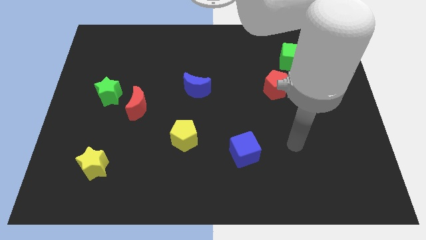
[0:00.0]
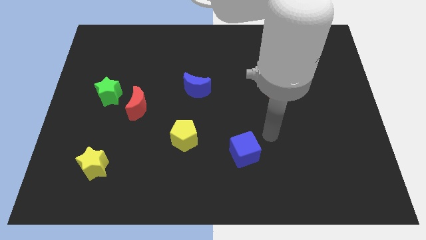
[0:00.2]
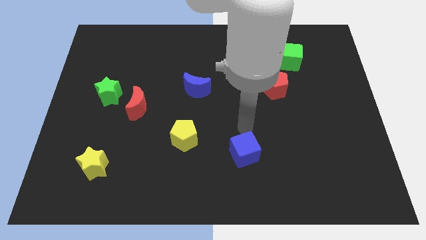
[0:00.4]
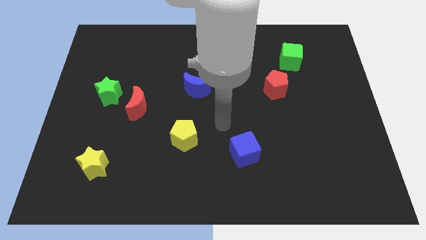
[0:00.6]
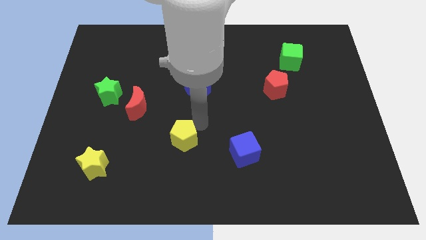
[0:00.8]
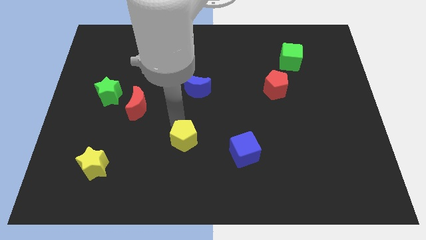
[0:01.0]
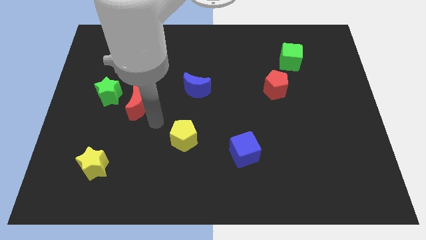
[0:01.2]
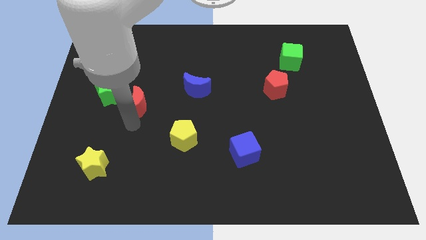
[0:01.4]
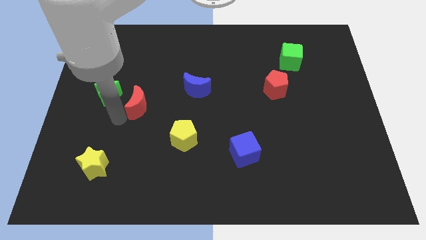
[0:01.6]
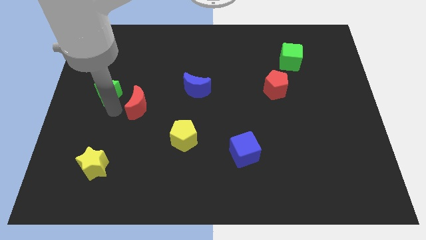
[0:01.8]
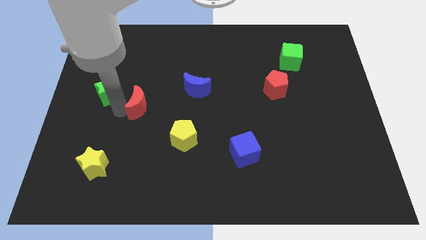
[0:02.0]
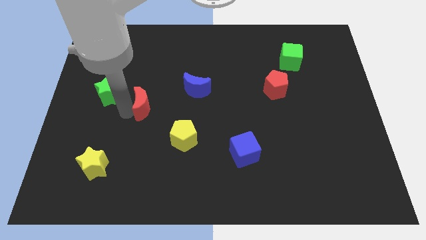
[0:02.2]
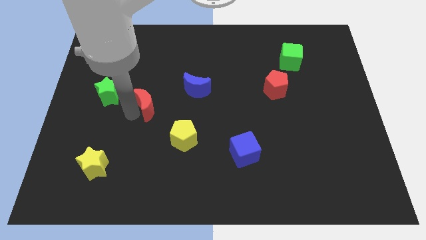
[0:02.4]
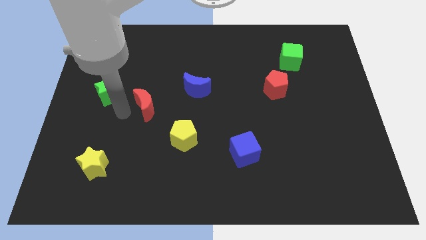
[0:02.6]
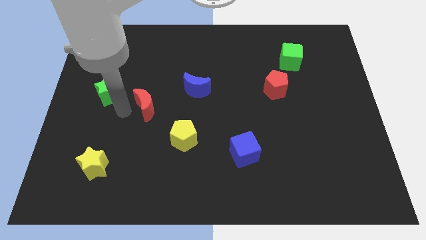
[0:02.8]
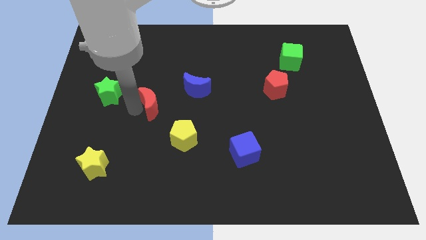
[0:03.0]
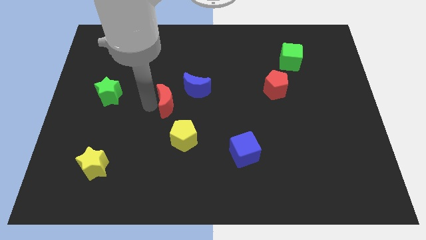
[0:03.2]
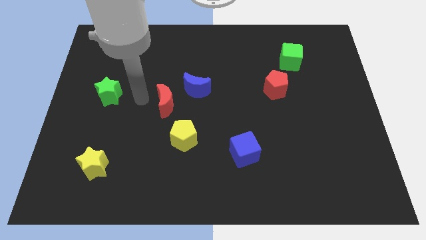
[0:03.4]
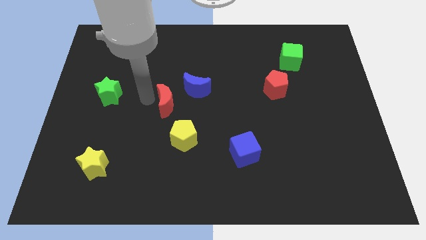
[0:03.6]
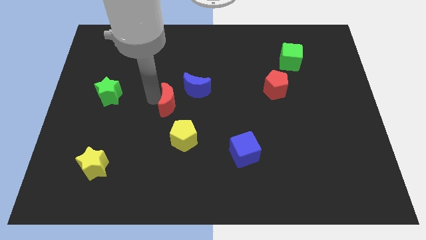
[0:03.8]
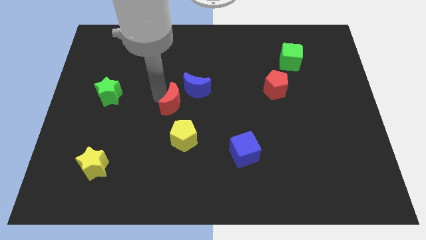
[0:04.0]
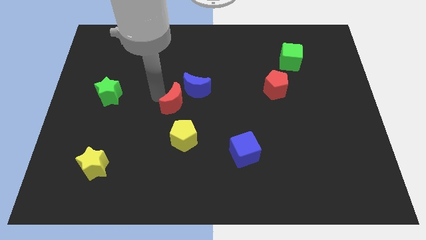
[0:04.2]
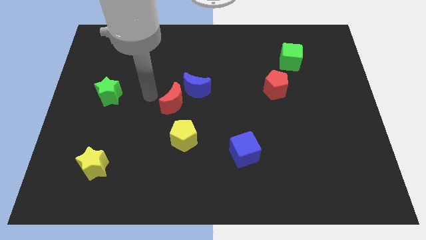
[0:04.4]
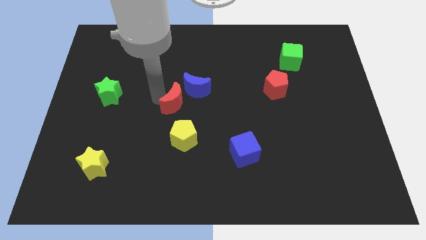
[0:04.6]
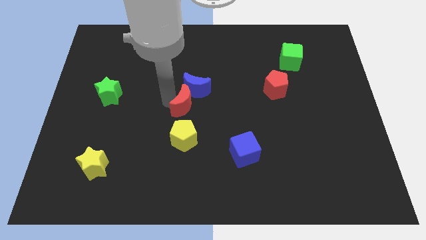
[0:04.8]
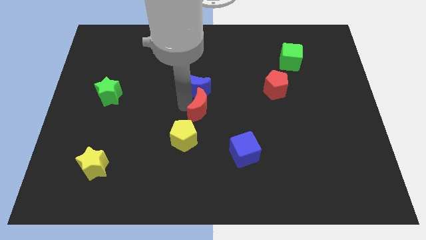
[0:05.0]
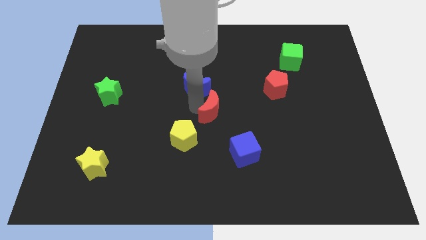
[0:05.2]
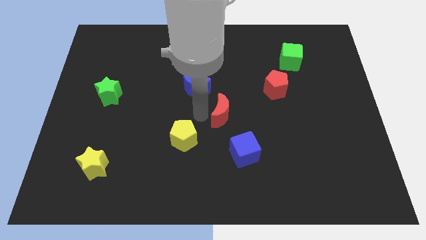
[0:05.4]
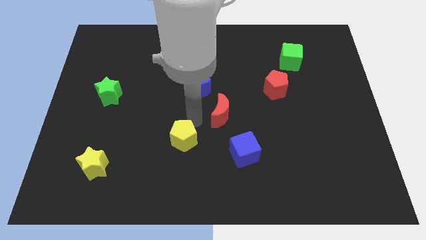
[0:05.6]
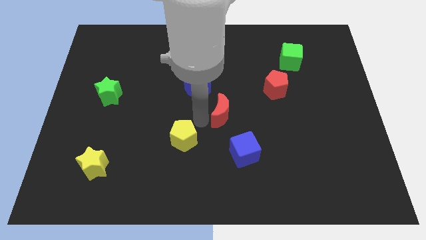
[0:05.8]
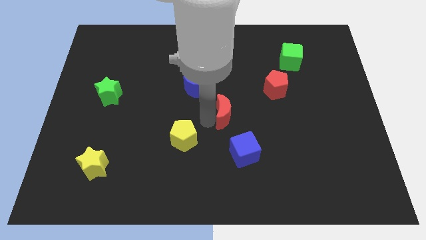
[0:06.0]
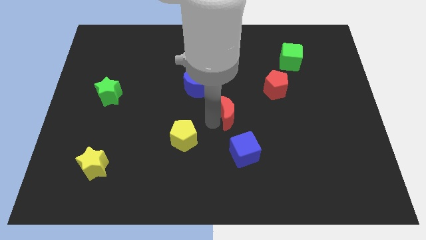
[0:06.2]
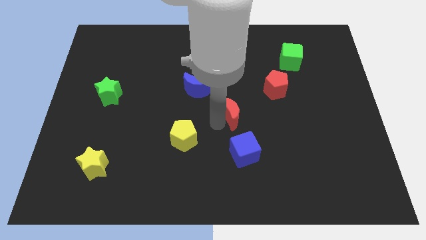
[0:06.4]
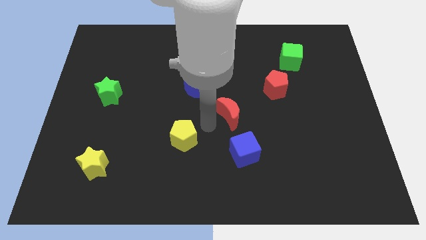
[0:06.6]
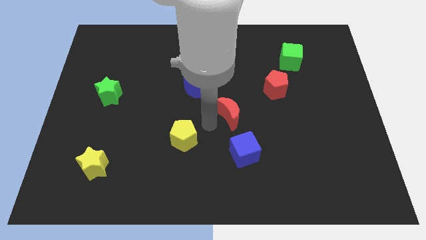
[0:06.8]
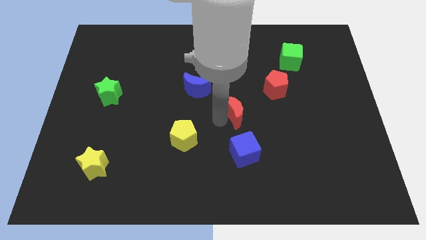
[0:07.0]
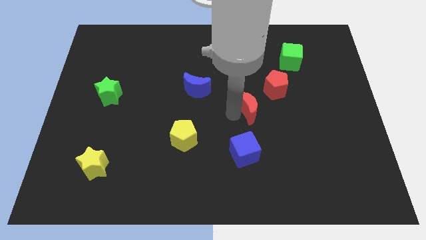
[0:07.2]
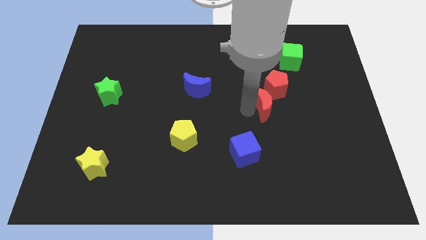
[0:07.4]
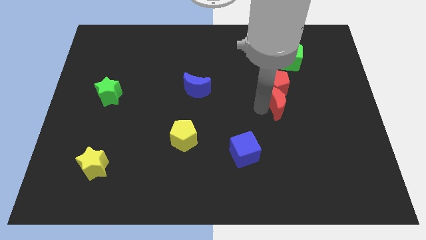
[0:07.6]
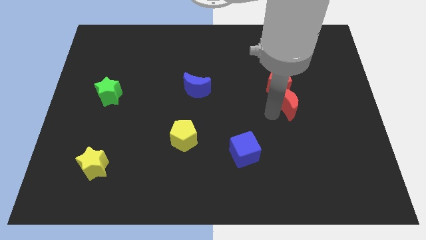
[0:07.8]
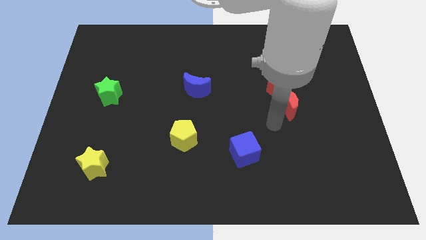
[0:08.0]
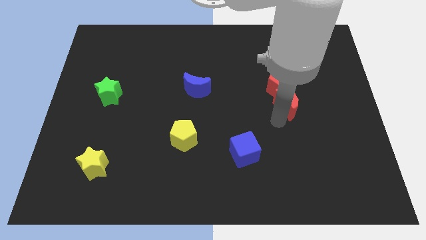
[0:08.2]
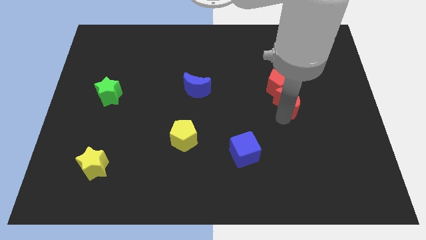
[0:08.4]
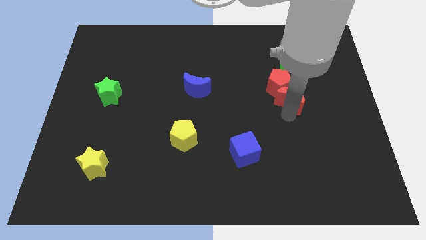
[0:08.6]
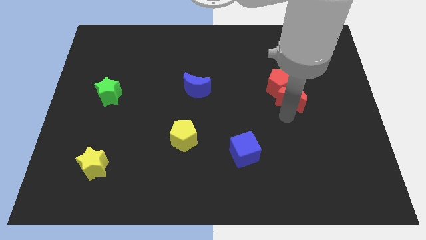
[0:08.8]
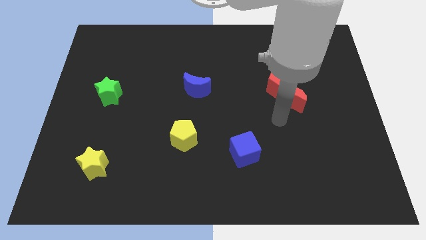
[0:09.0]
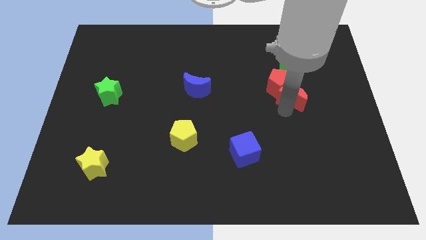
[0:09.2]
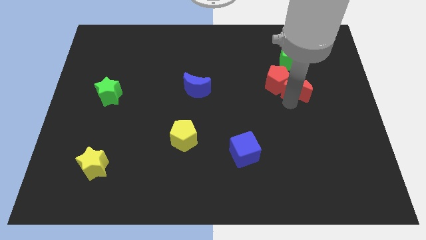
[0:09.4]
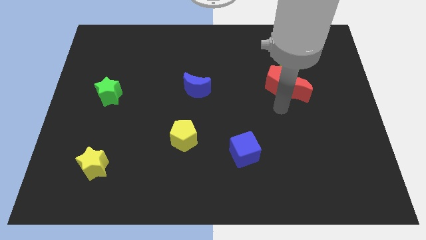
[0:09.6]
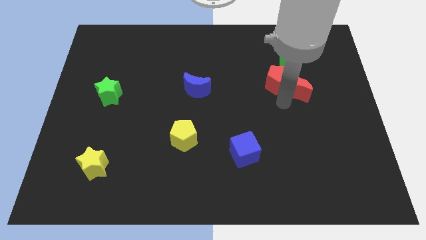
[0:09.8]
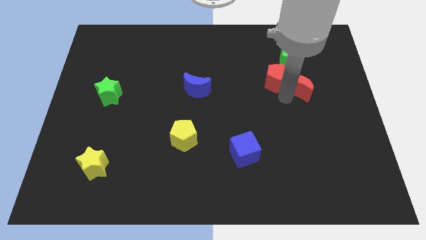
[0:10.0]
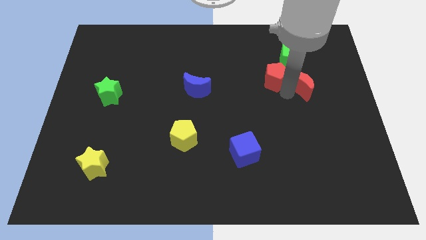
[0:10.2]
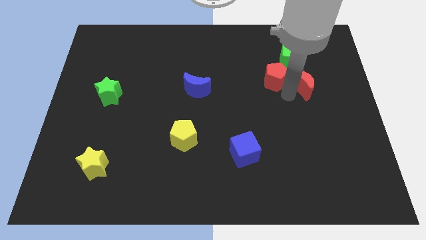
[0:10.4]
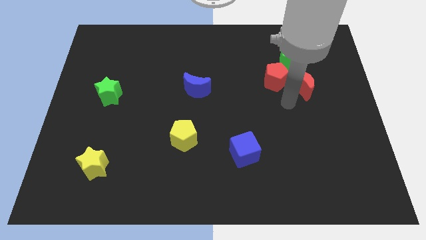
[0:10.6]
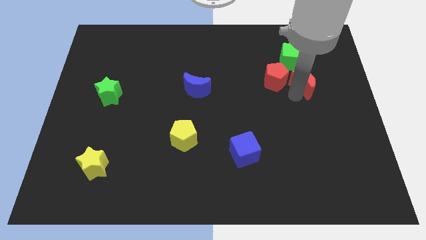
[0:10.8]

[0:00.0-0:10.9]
put the red moon diagonally down and to the right of the green cube

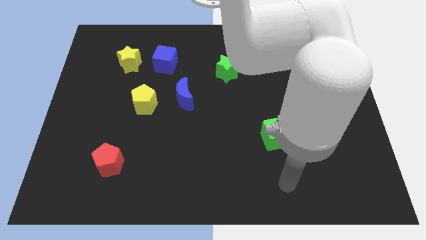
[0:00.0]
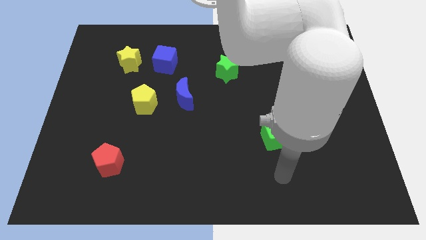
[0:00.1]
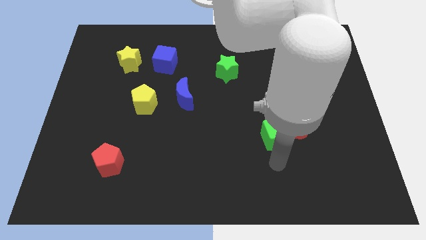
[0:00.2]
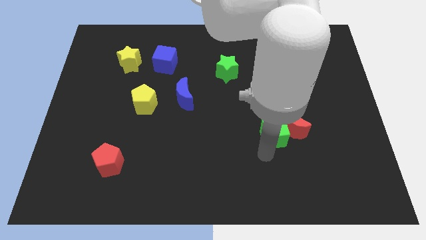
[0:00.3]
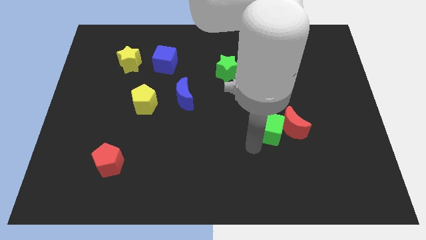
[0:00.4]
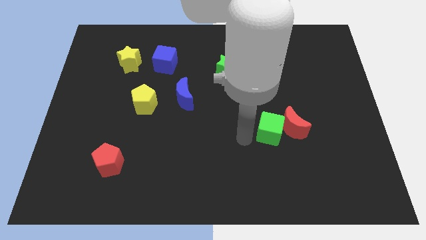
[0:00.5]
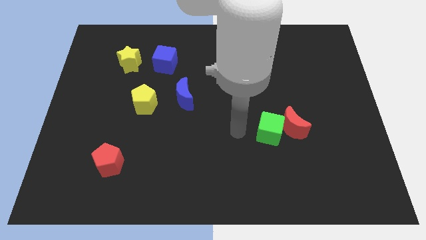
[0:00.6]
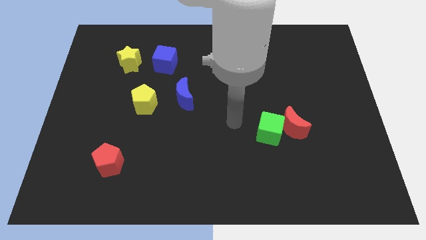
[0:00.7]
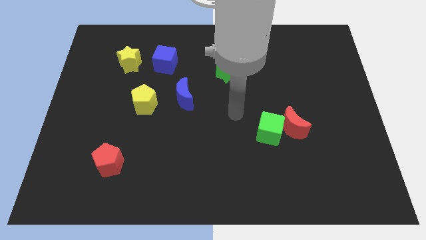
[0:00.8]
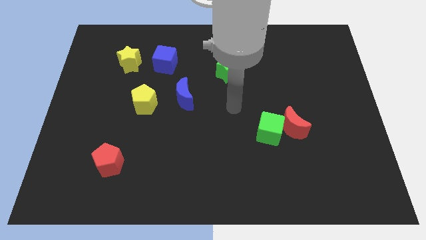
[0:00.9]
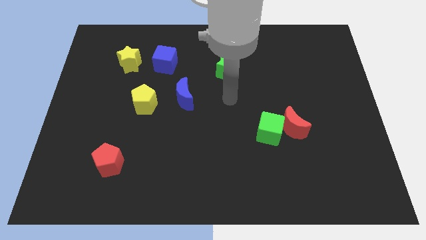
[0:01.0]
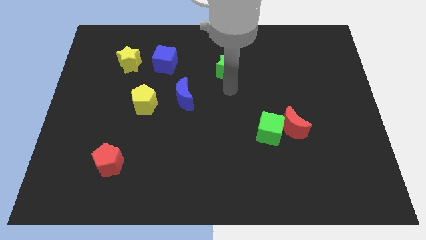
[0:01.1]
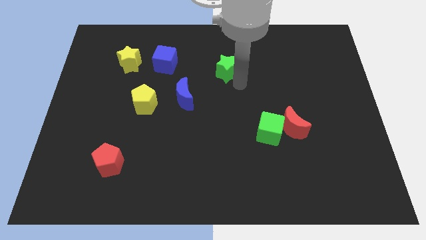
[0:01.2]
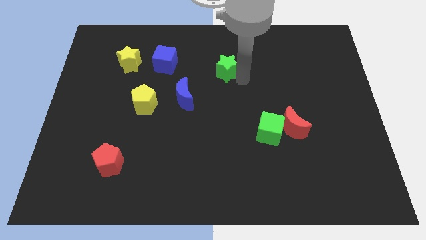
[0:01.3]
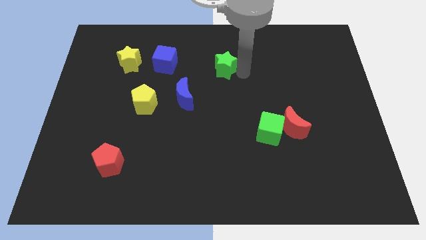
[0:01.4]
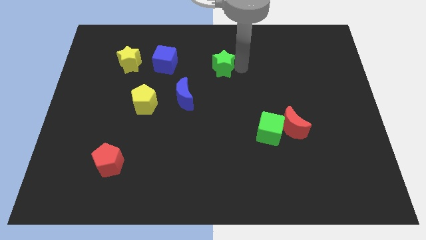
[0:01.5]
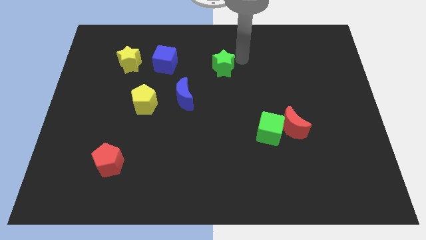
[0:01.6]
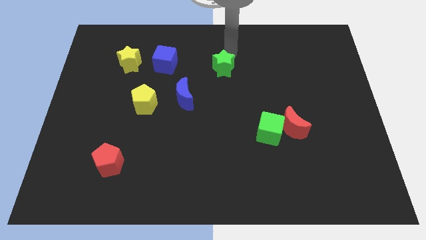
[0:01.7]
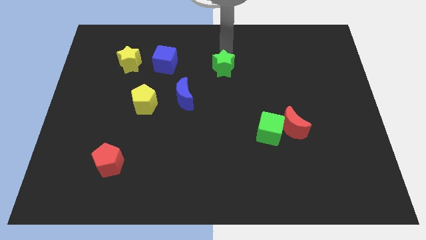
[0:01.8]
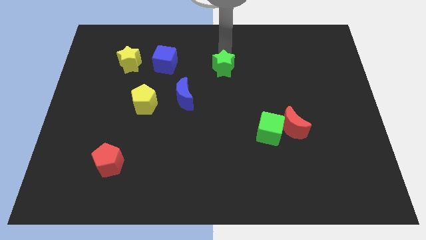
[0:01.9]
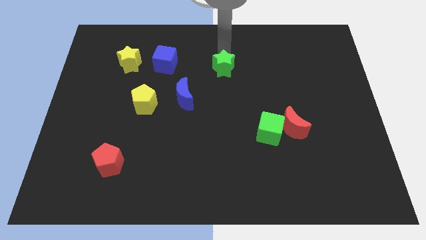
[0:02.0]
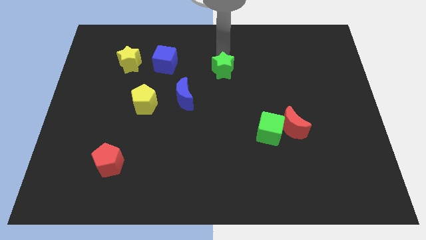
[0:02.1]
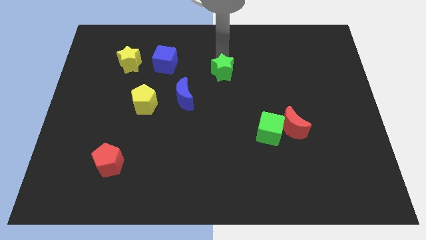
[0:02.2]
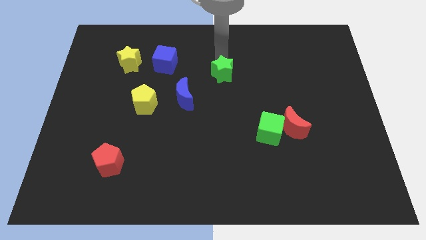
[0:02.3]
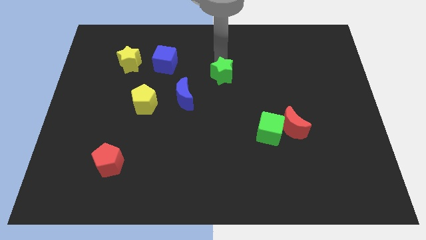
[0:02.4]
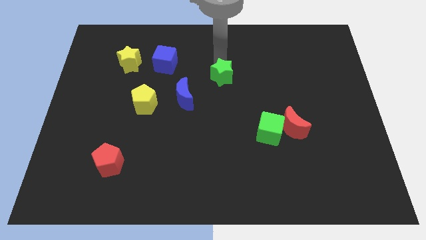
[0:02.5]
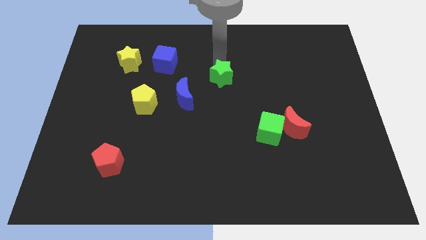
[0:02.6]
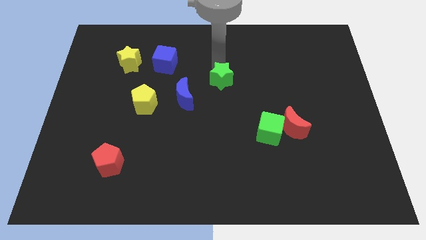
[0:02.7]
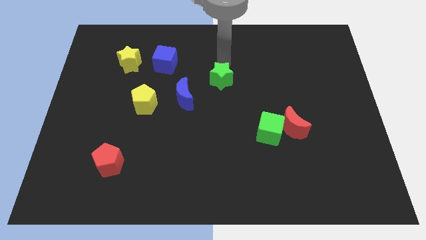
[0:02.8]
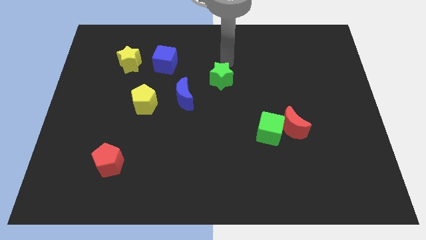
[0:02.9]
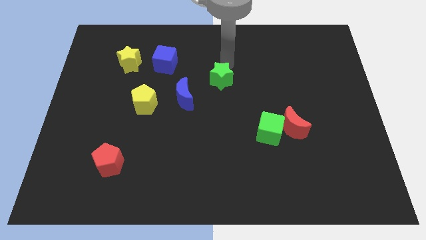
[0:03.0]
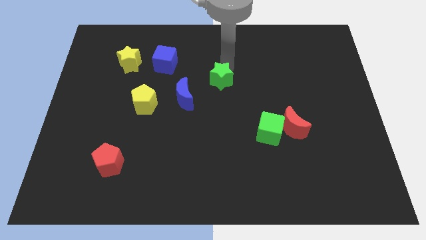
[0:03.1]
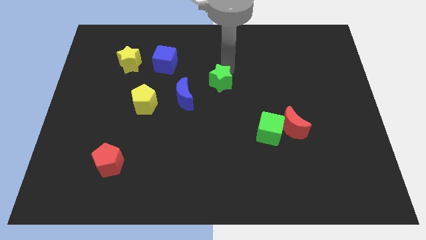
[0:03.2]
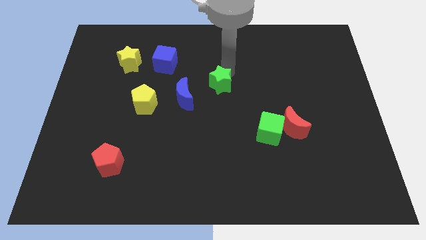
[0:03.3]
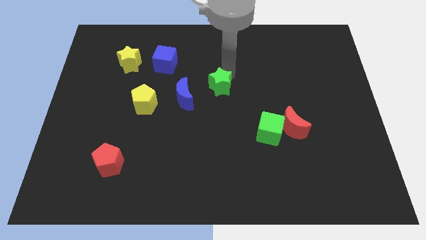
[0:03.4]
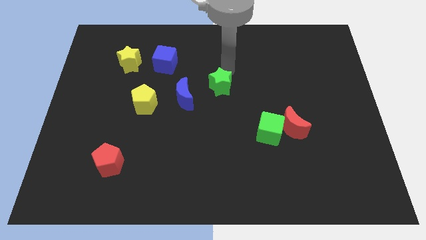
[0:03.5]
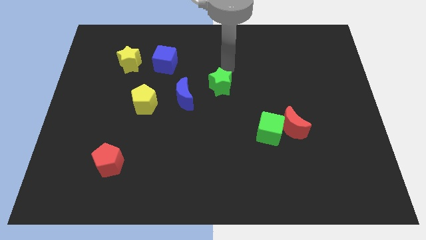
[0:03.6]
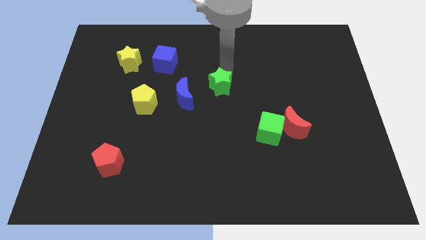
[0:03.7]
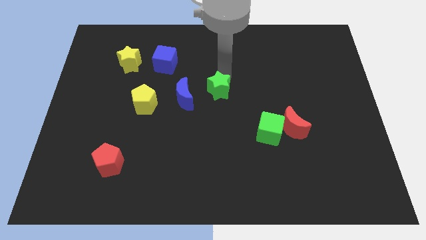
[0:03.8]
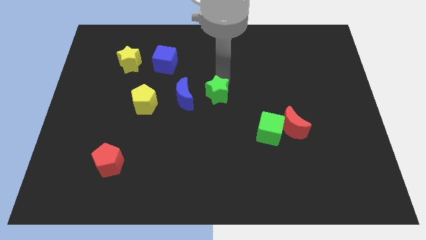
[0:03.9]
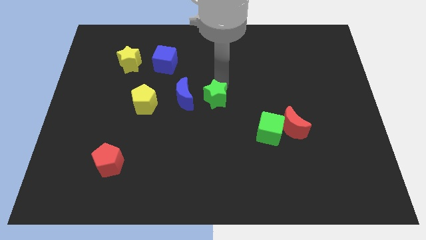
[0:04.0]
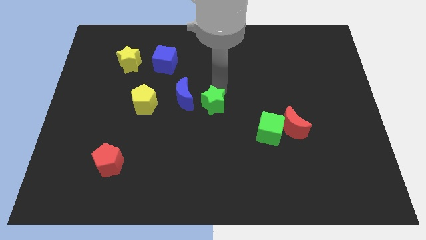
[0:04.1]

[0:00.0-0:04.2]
slide the green star to the bottom right of the blue moon
